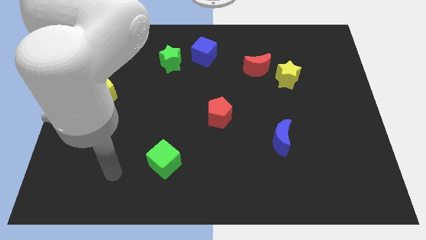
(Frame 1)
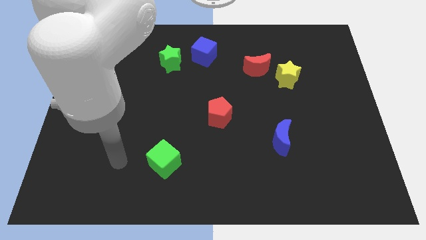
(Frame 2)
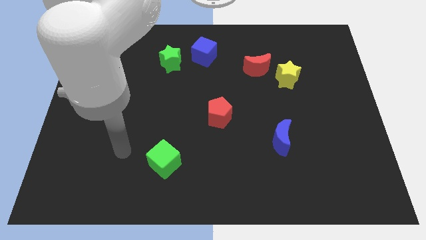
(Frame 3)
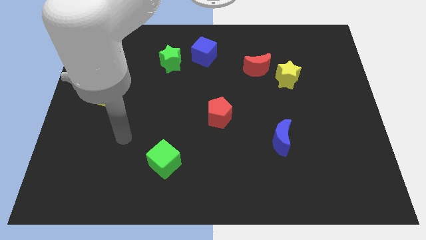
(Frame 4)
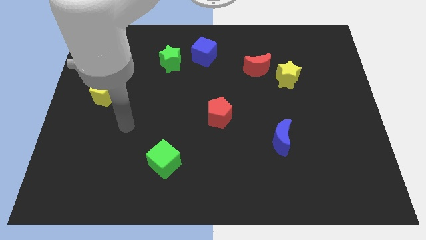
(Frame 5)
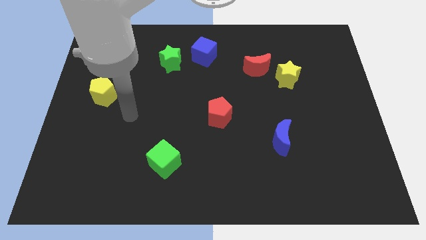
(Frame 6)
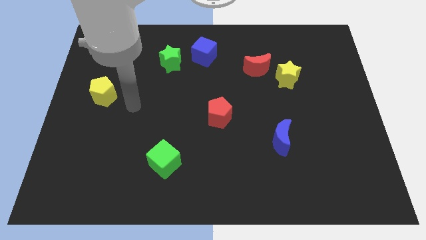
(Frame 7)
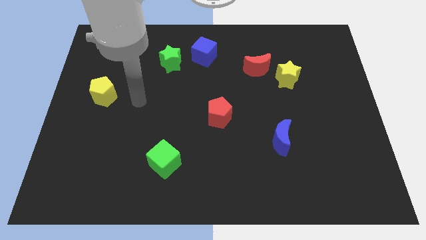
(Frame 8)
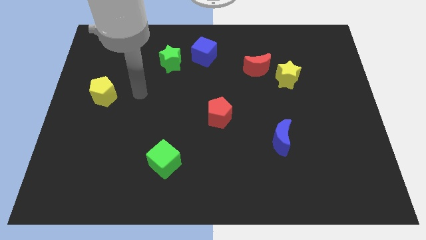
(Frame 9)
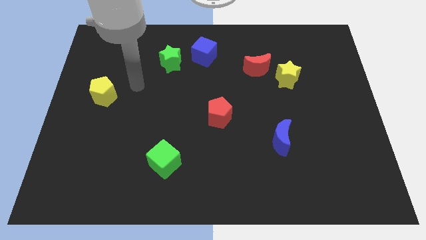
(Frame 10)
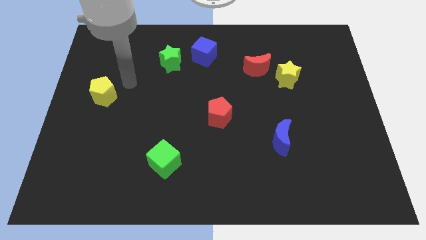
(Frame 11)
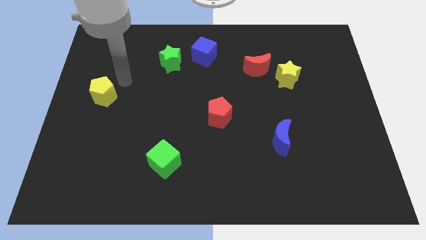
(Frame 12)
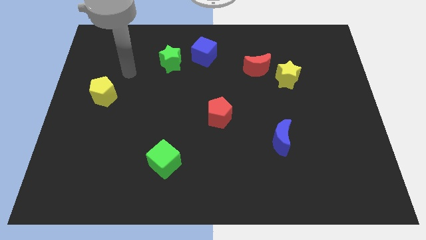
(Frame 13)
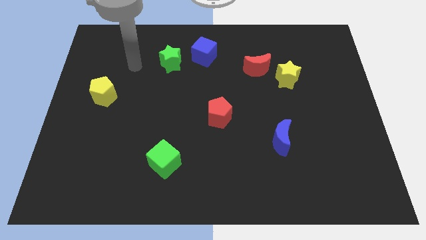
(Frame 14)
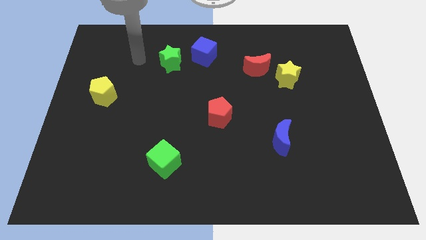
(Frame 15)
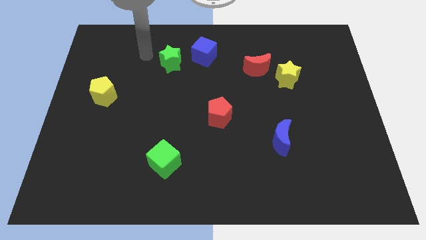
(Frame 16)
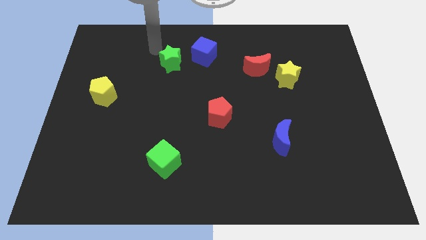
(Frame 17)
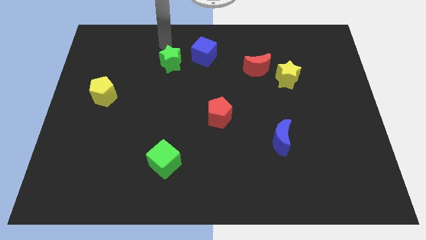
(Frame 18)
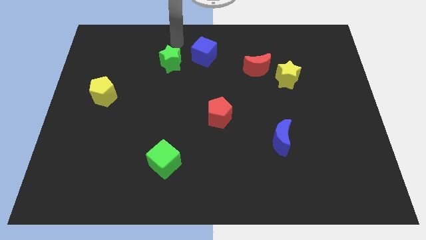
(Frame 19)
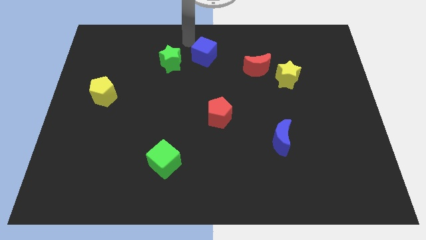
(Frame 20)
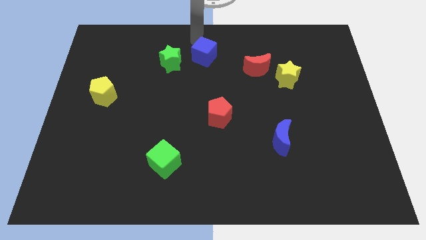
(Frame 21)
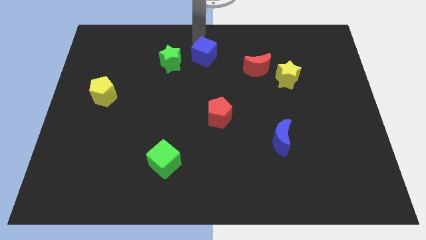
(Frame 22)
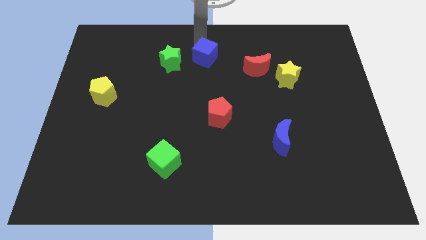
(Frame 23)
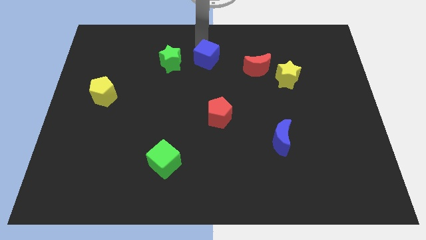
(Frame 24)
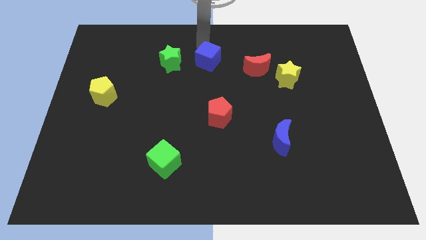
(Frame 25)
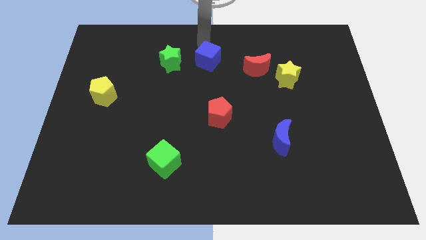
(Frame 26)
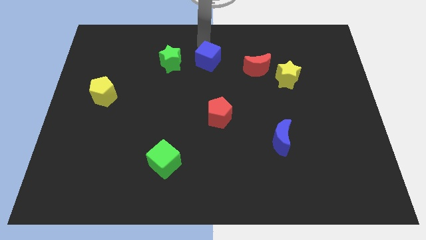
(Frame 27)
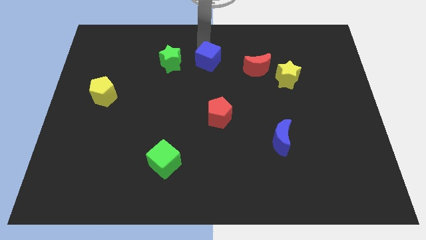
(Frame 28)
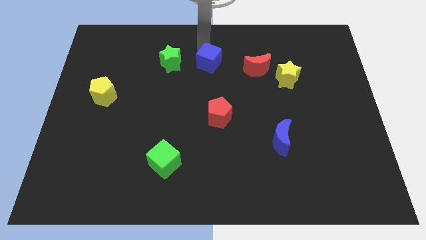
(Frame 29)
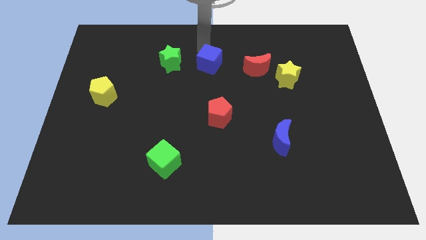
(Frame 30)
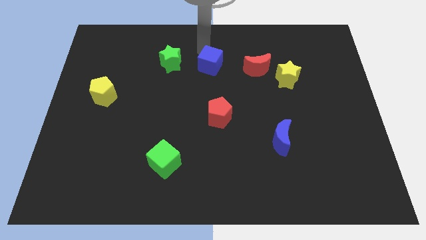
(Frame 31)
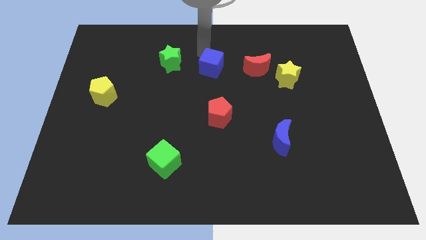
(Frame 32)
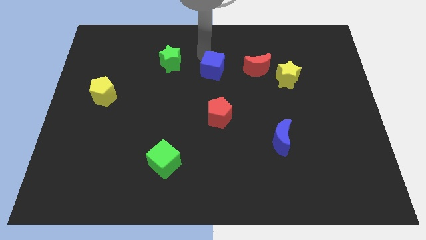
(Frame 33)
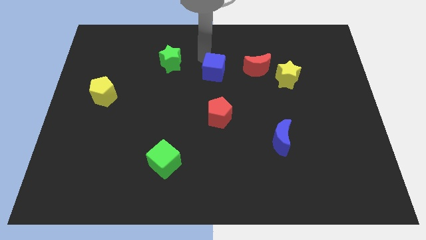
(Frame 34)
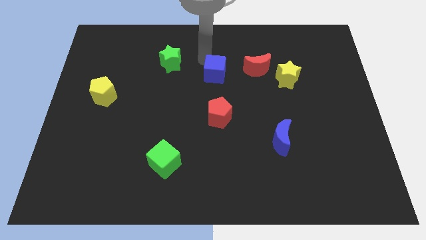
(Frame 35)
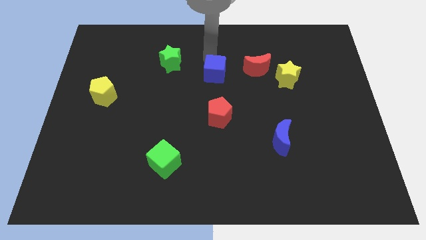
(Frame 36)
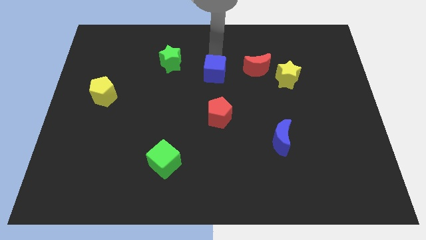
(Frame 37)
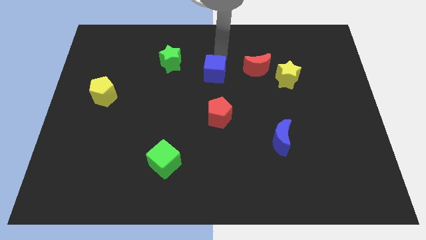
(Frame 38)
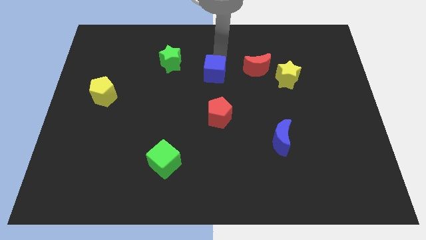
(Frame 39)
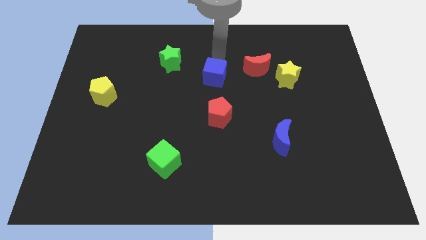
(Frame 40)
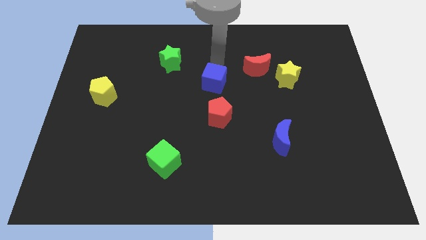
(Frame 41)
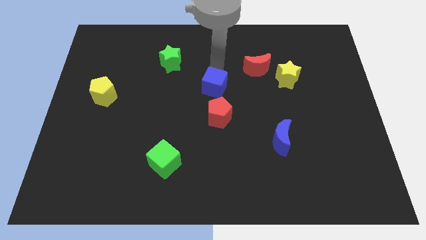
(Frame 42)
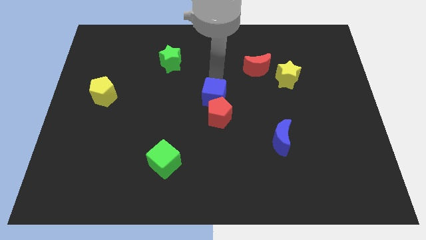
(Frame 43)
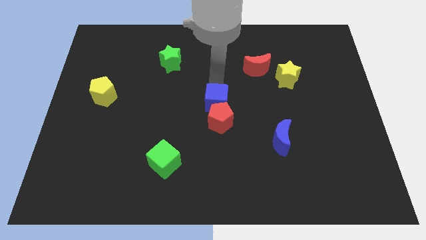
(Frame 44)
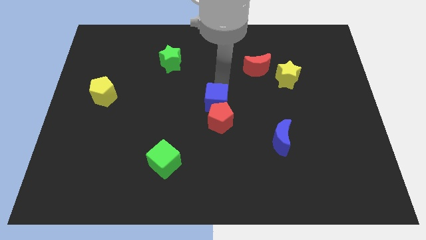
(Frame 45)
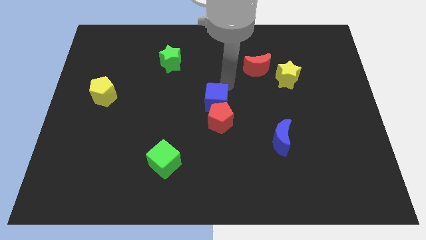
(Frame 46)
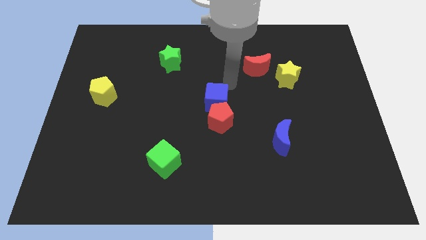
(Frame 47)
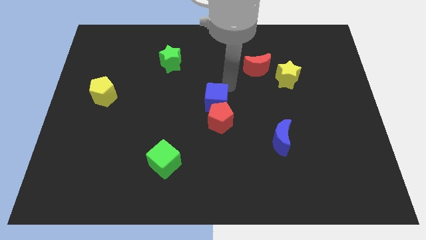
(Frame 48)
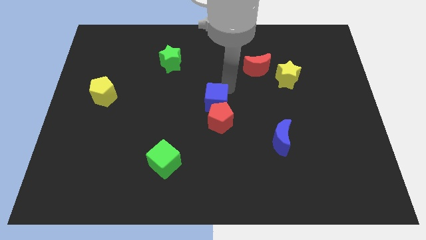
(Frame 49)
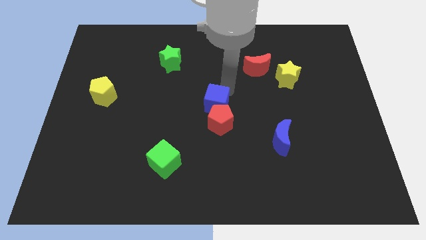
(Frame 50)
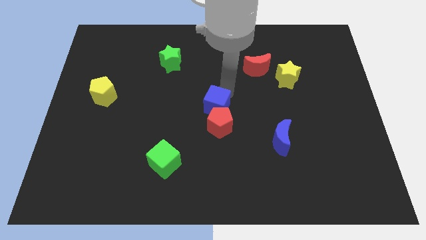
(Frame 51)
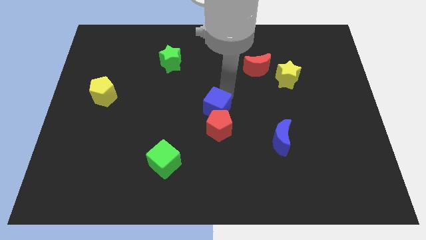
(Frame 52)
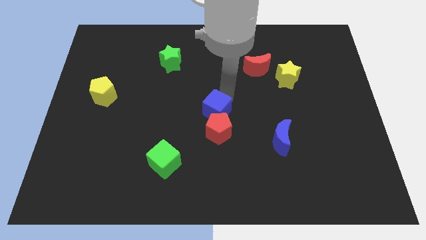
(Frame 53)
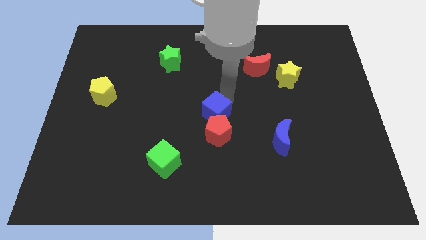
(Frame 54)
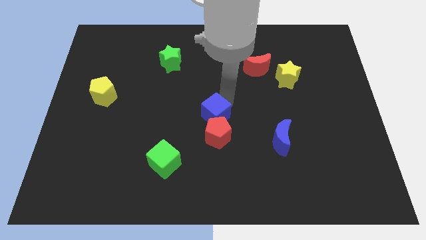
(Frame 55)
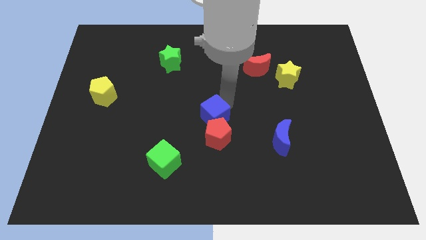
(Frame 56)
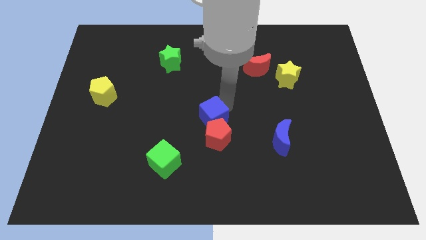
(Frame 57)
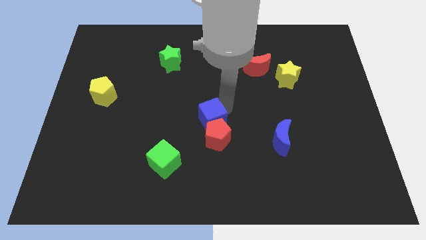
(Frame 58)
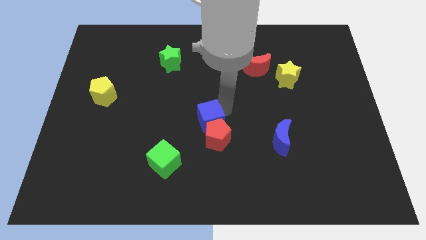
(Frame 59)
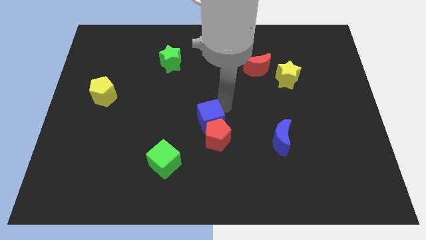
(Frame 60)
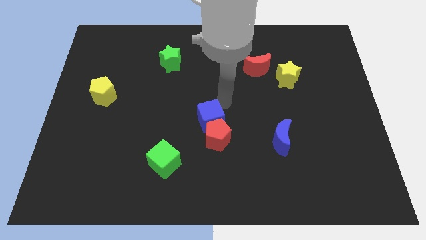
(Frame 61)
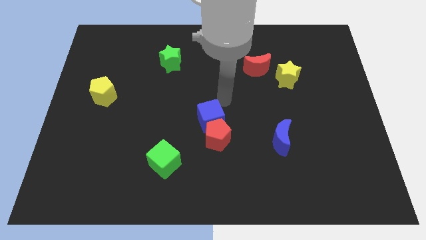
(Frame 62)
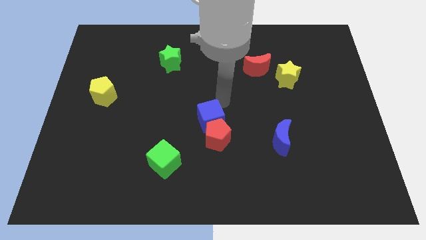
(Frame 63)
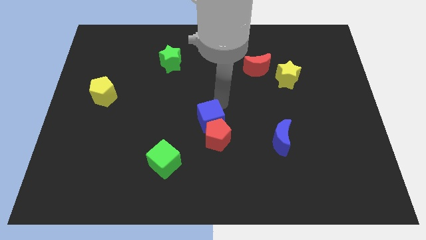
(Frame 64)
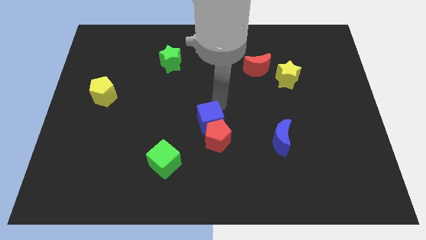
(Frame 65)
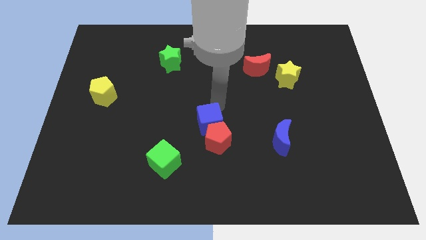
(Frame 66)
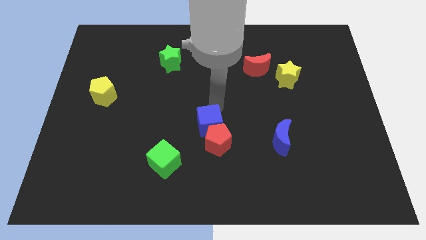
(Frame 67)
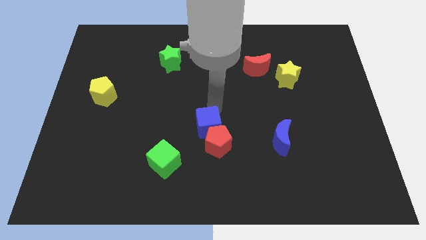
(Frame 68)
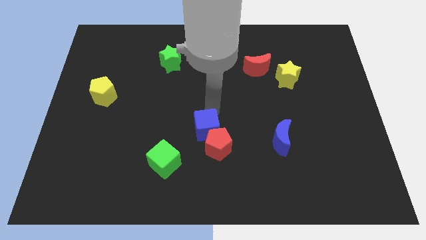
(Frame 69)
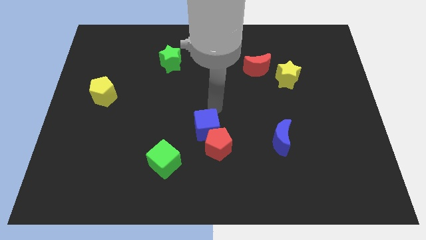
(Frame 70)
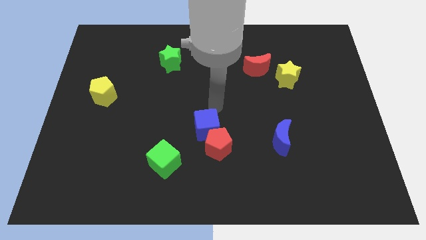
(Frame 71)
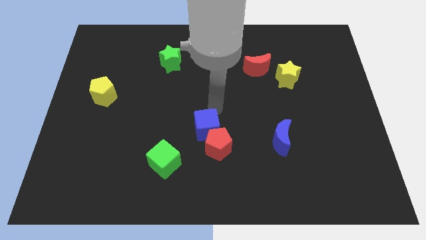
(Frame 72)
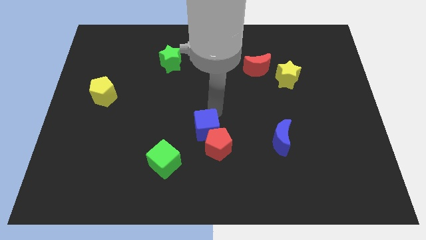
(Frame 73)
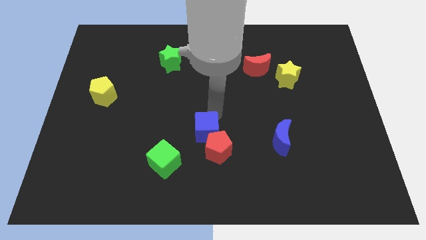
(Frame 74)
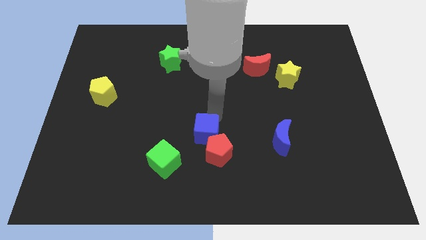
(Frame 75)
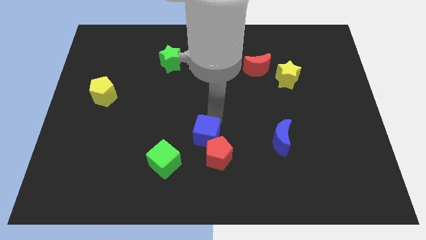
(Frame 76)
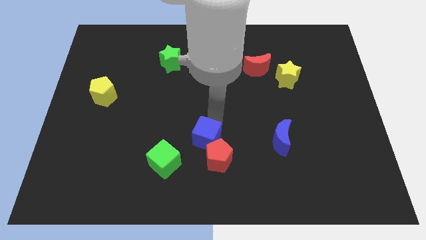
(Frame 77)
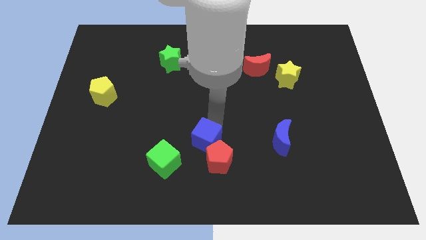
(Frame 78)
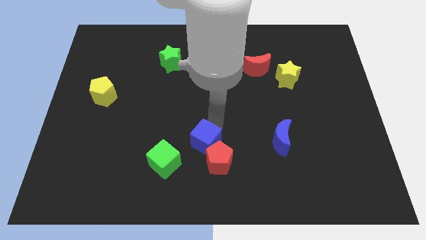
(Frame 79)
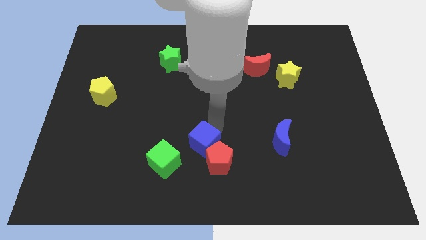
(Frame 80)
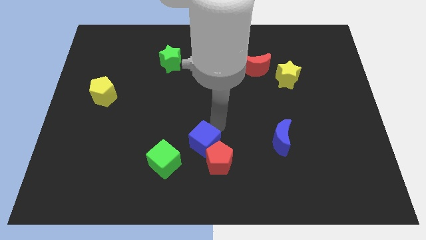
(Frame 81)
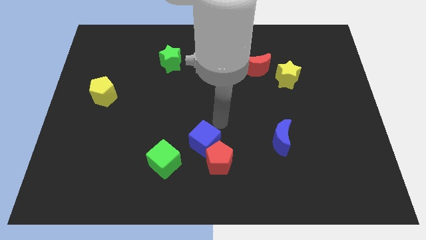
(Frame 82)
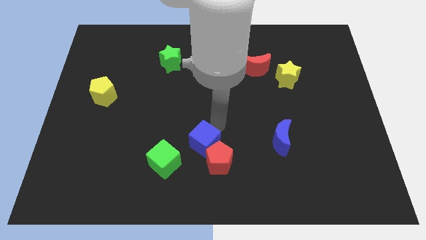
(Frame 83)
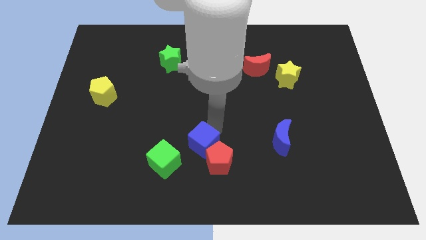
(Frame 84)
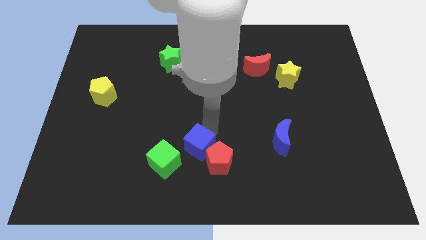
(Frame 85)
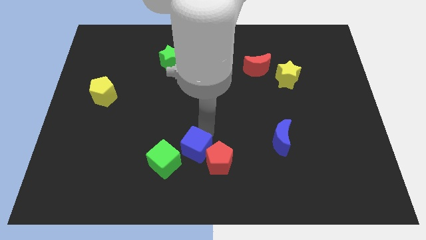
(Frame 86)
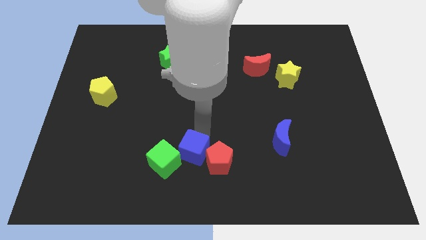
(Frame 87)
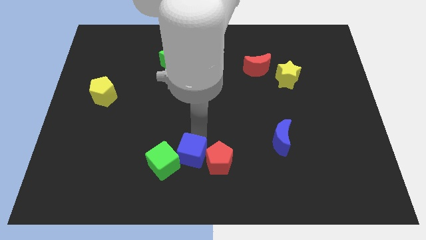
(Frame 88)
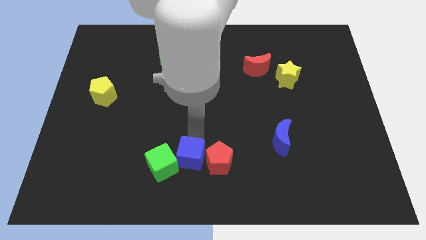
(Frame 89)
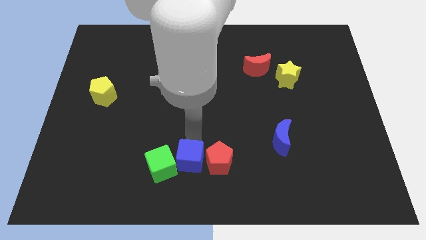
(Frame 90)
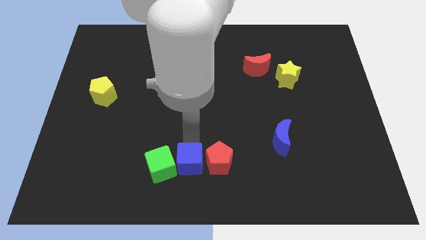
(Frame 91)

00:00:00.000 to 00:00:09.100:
push the blue cube to the bottom right of the green cube
